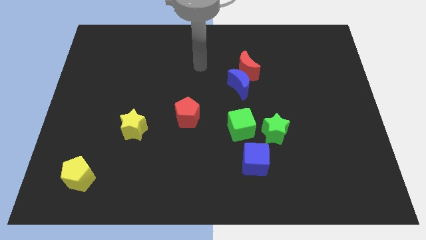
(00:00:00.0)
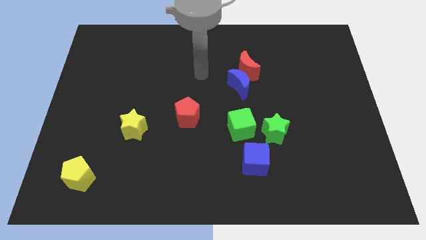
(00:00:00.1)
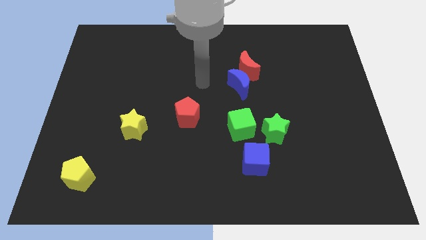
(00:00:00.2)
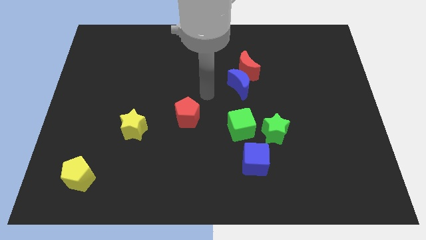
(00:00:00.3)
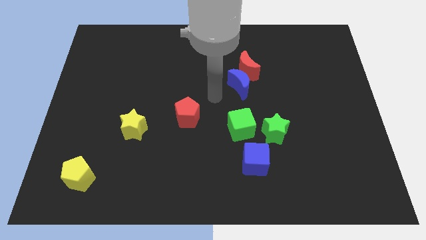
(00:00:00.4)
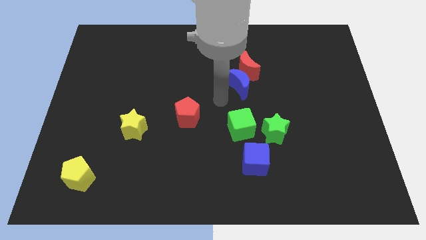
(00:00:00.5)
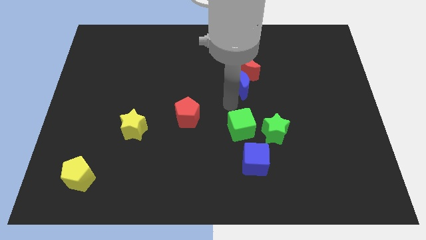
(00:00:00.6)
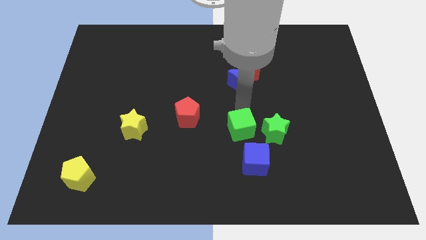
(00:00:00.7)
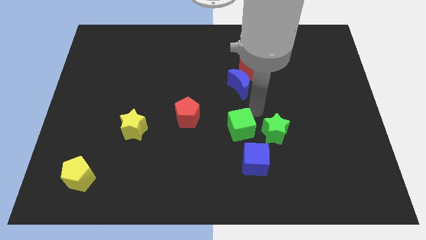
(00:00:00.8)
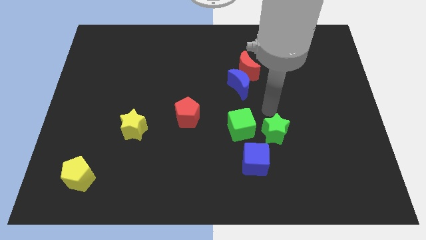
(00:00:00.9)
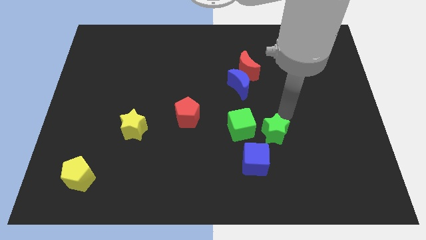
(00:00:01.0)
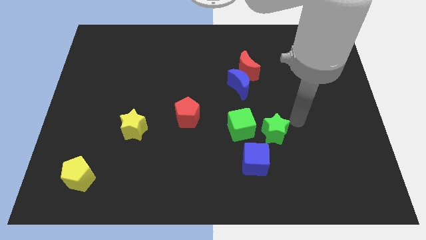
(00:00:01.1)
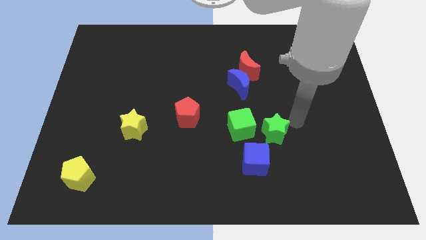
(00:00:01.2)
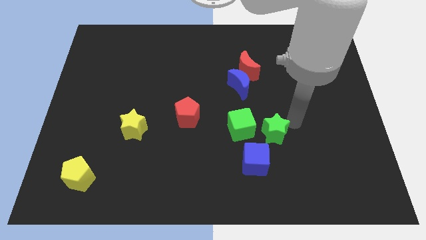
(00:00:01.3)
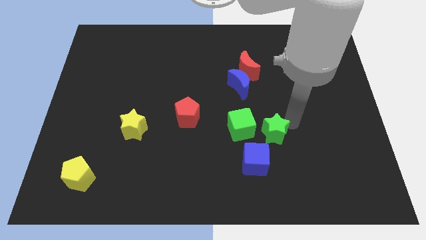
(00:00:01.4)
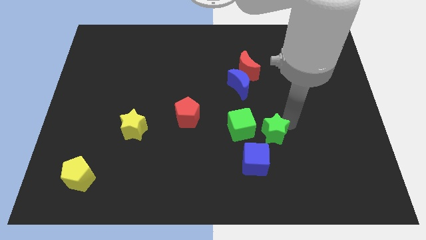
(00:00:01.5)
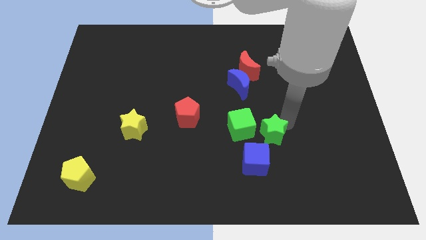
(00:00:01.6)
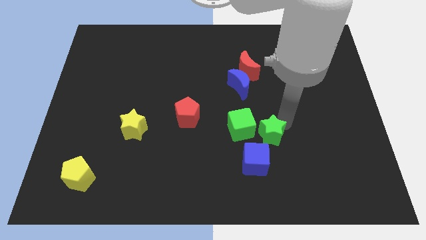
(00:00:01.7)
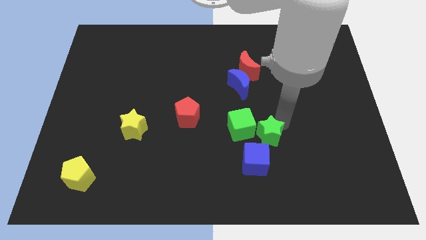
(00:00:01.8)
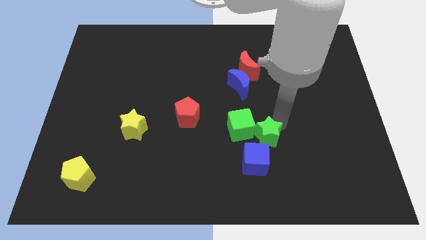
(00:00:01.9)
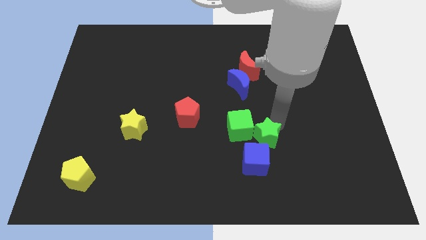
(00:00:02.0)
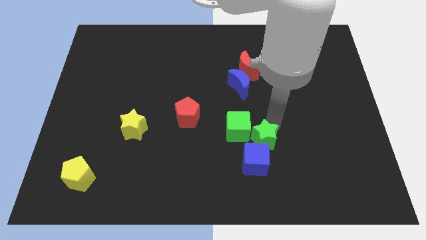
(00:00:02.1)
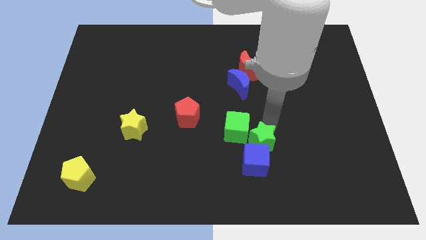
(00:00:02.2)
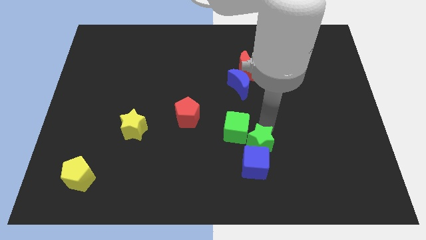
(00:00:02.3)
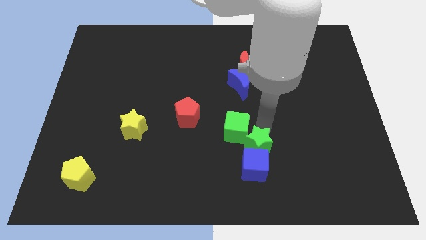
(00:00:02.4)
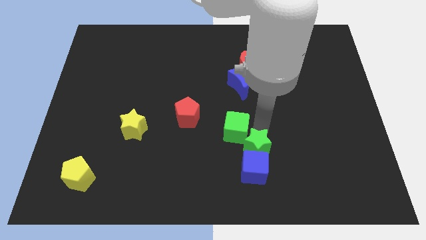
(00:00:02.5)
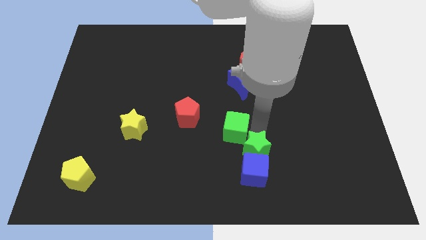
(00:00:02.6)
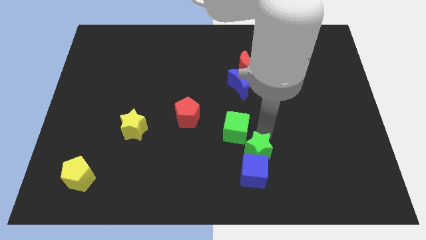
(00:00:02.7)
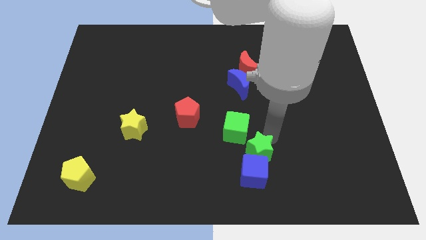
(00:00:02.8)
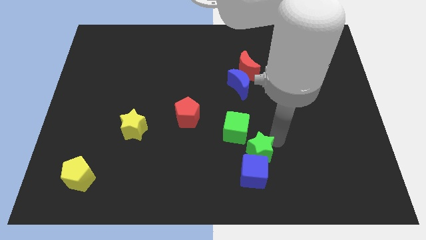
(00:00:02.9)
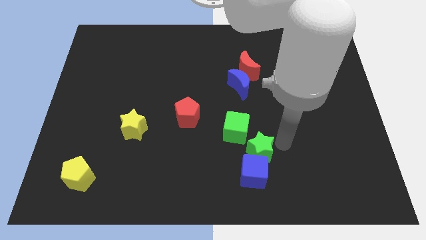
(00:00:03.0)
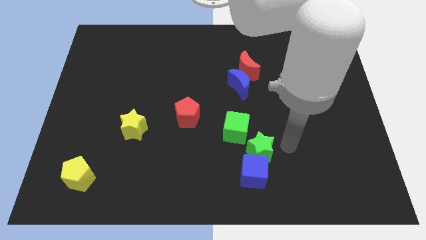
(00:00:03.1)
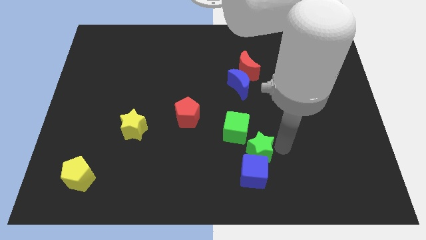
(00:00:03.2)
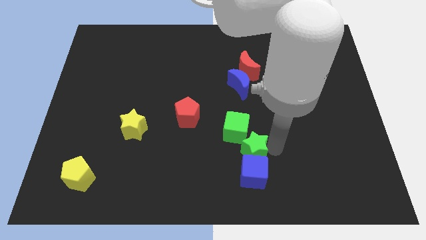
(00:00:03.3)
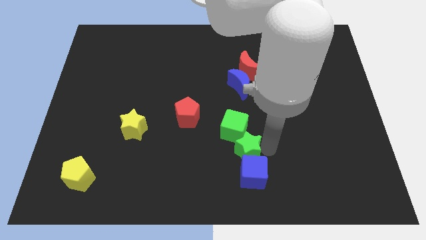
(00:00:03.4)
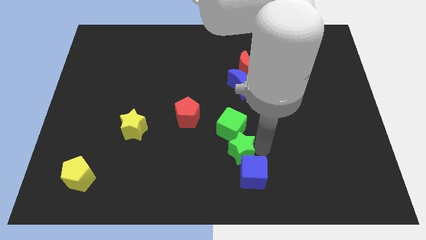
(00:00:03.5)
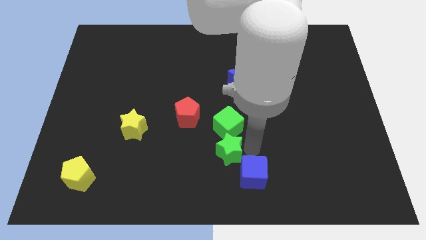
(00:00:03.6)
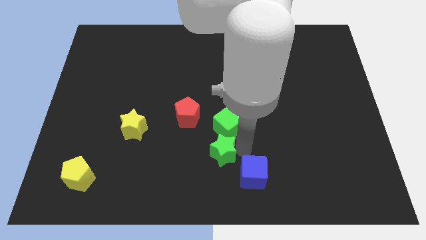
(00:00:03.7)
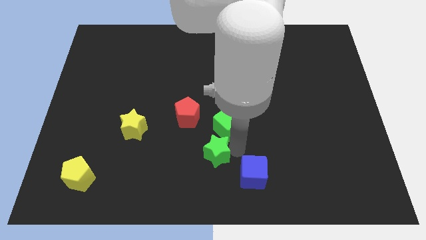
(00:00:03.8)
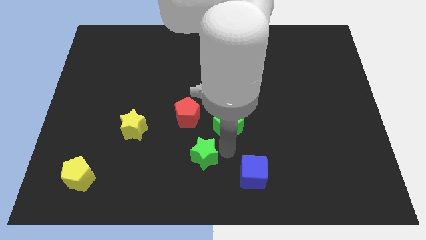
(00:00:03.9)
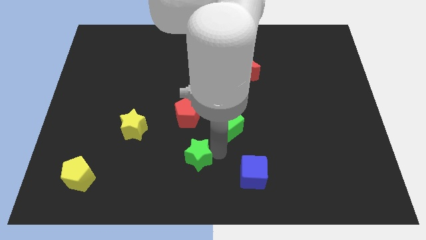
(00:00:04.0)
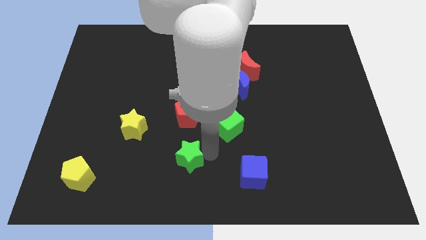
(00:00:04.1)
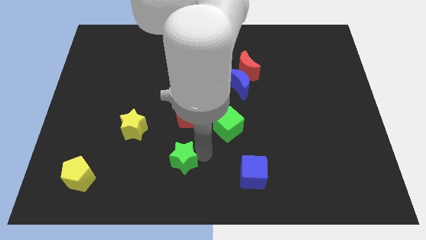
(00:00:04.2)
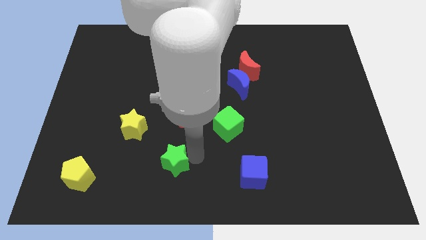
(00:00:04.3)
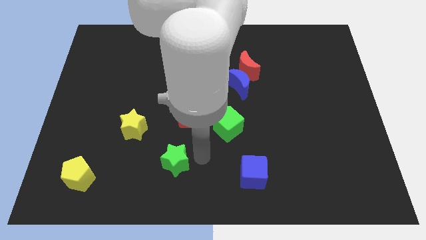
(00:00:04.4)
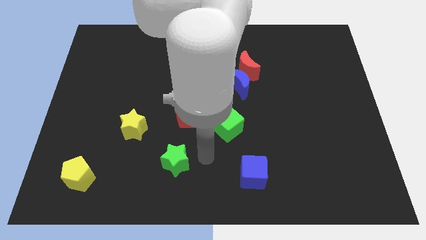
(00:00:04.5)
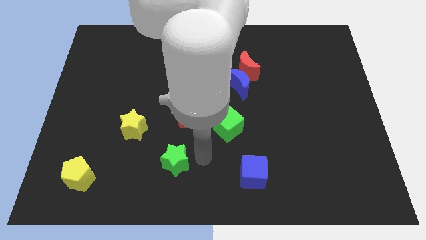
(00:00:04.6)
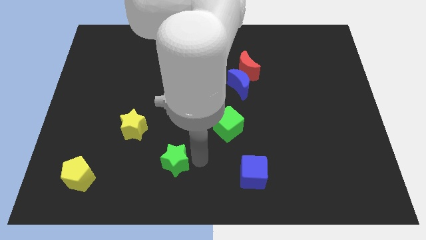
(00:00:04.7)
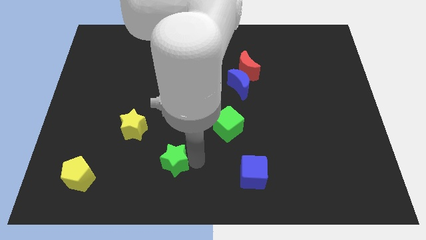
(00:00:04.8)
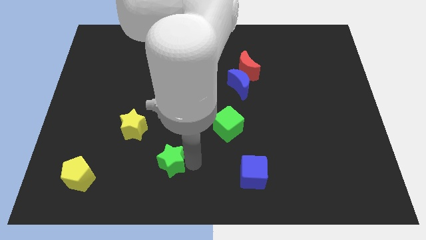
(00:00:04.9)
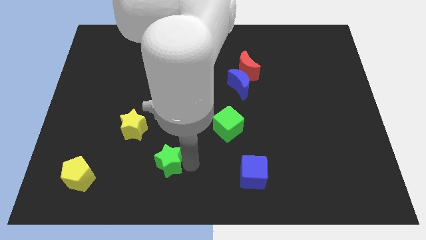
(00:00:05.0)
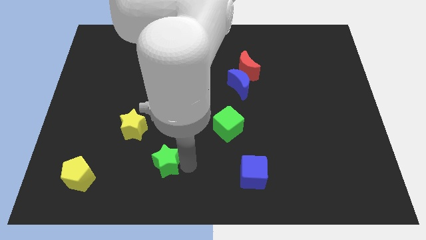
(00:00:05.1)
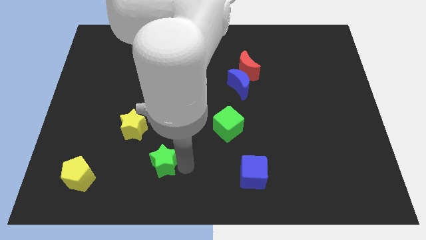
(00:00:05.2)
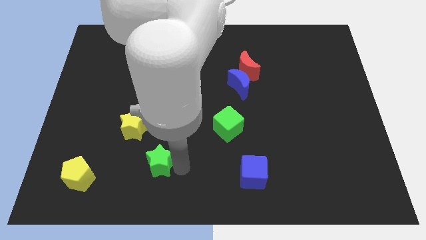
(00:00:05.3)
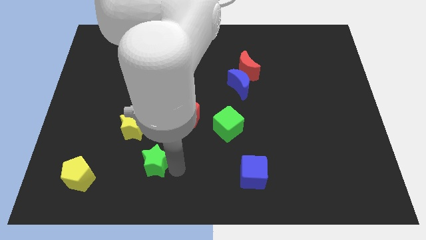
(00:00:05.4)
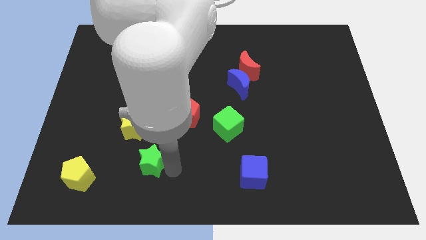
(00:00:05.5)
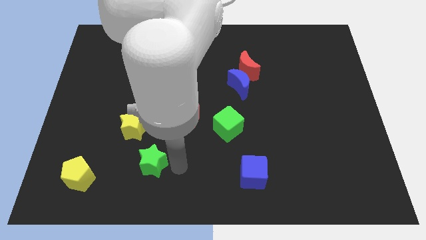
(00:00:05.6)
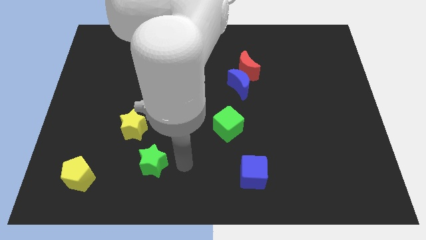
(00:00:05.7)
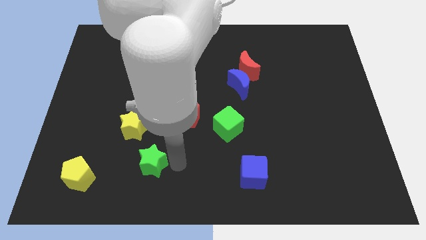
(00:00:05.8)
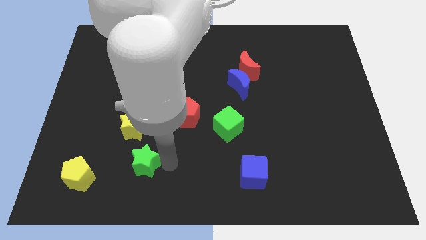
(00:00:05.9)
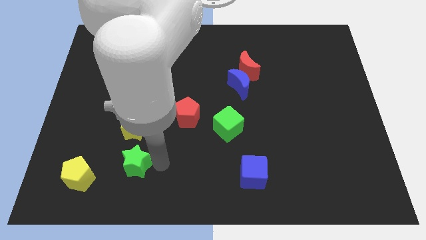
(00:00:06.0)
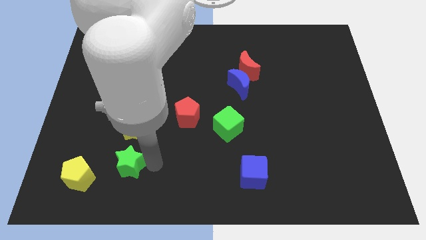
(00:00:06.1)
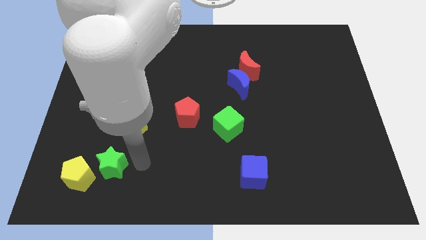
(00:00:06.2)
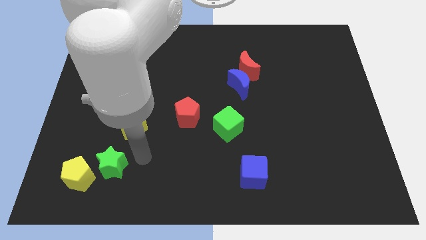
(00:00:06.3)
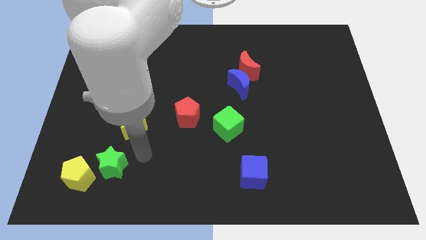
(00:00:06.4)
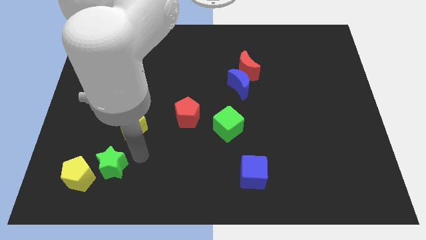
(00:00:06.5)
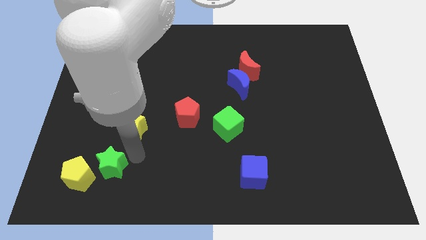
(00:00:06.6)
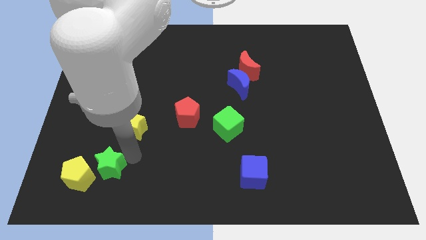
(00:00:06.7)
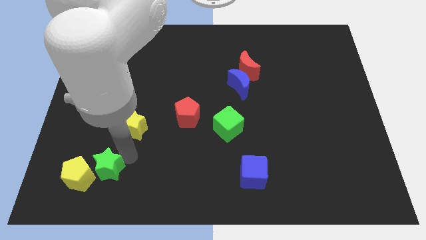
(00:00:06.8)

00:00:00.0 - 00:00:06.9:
put the green star towards the yellow pentagon

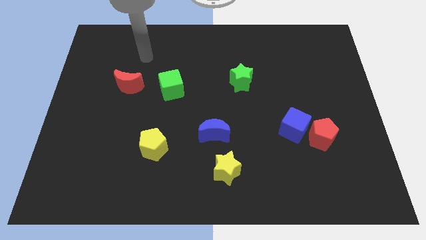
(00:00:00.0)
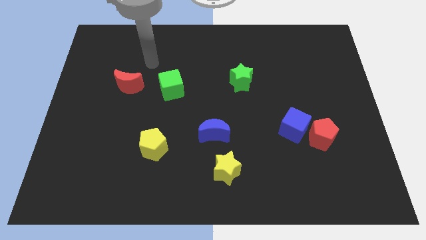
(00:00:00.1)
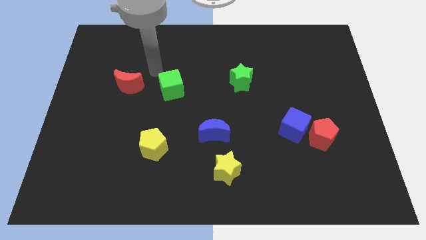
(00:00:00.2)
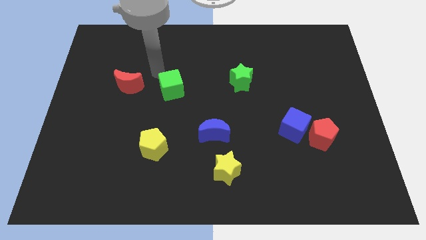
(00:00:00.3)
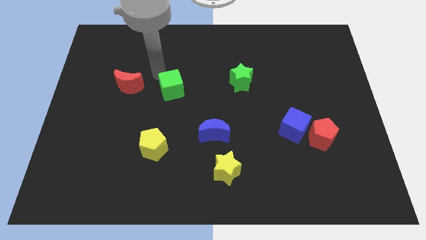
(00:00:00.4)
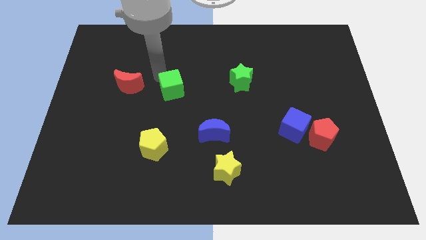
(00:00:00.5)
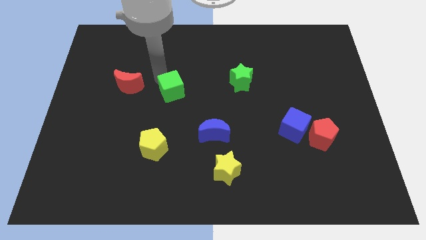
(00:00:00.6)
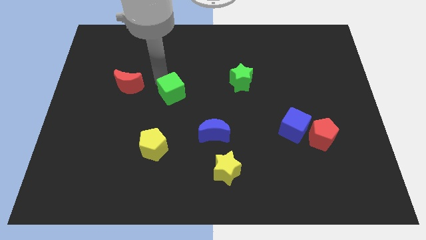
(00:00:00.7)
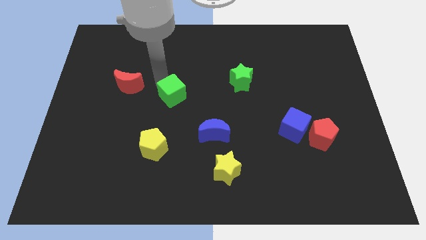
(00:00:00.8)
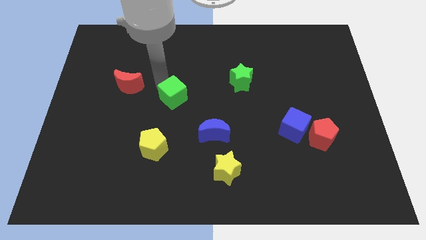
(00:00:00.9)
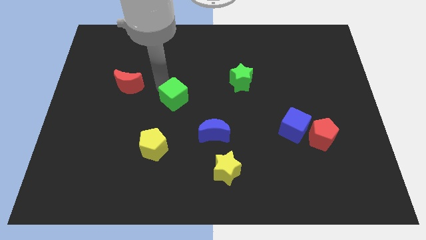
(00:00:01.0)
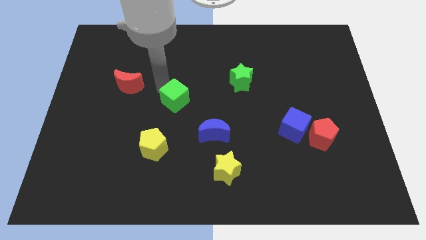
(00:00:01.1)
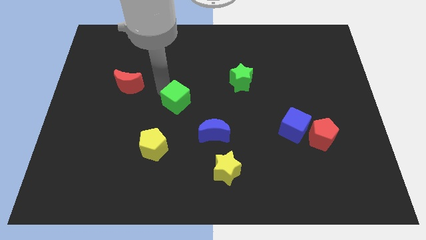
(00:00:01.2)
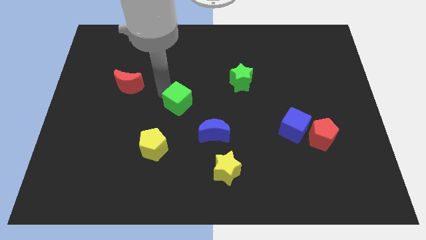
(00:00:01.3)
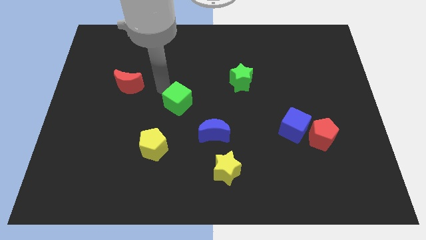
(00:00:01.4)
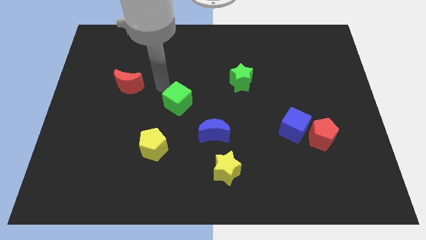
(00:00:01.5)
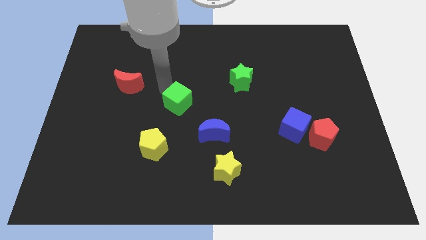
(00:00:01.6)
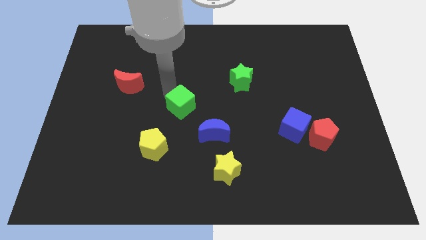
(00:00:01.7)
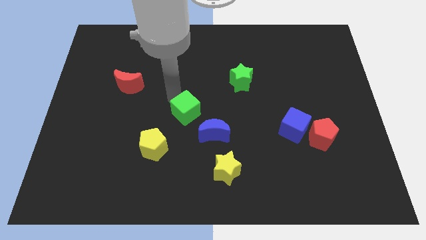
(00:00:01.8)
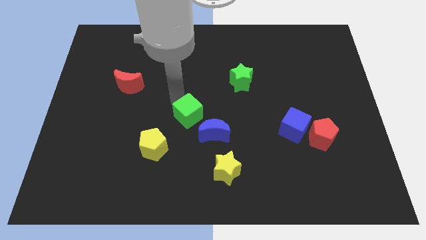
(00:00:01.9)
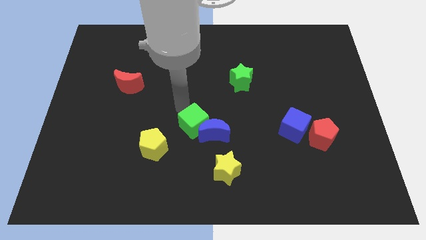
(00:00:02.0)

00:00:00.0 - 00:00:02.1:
push the green cube to the blue moon
